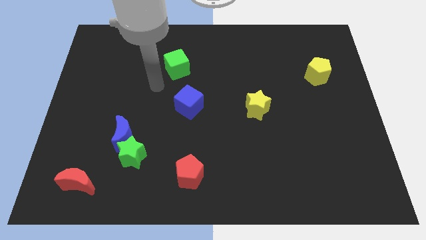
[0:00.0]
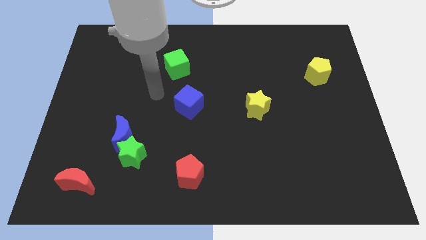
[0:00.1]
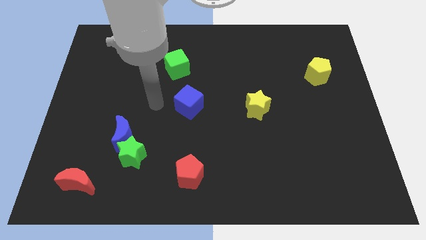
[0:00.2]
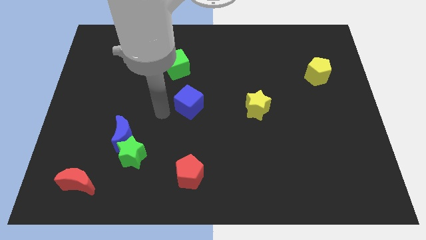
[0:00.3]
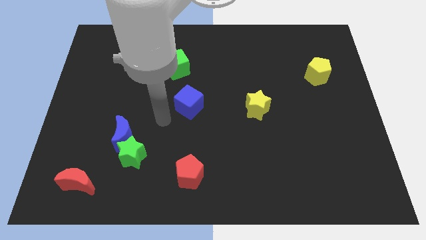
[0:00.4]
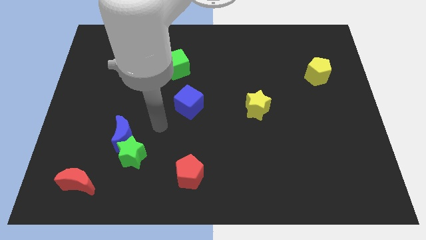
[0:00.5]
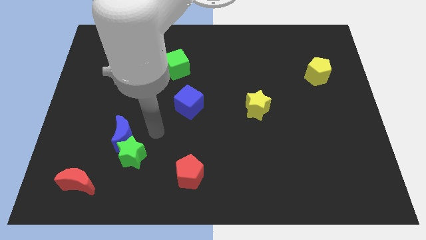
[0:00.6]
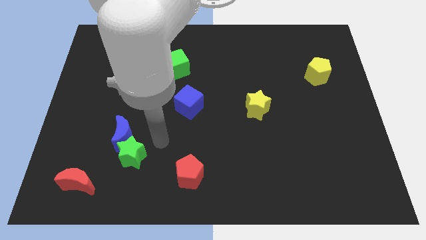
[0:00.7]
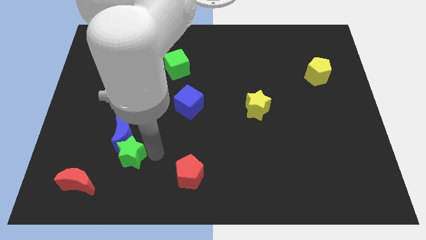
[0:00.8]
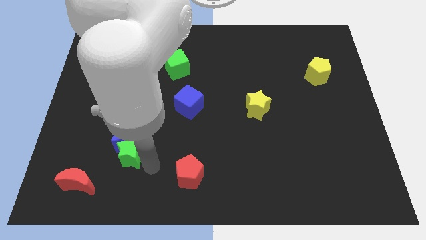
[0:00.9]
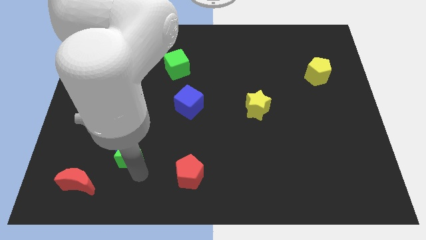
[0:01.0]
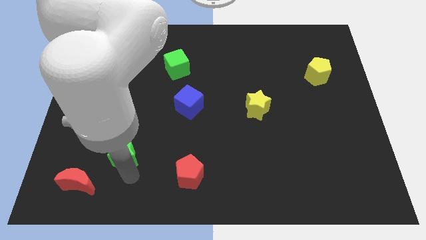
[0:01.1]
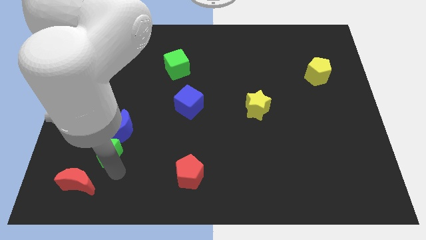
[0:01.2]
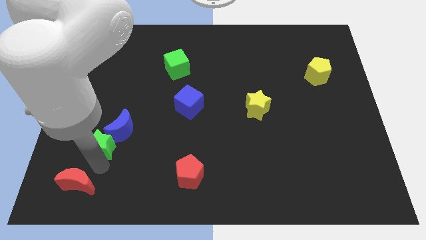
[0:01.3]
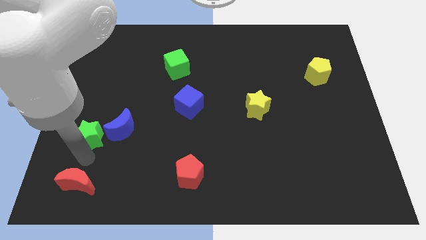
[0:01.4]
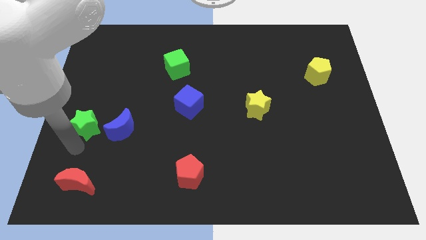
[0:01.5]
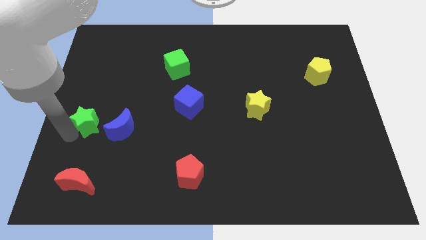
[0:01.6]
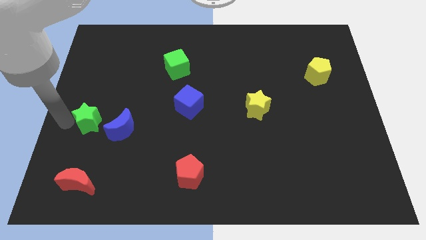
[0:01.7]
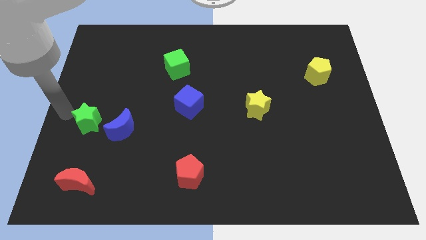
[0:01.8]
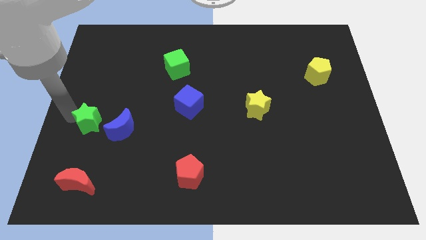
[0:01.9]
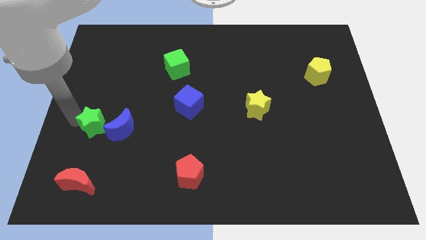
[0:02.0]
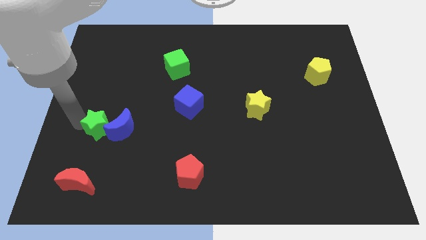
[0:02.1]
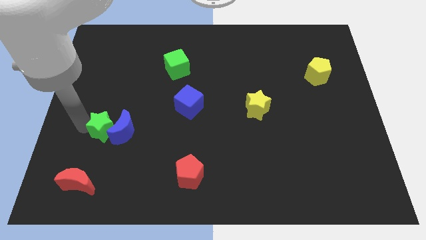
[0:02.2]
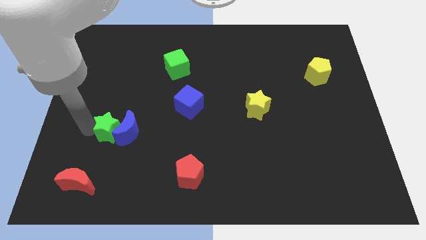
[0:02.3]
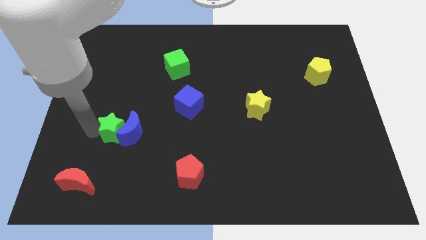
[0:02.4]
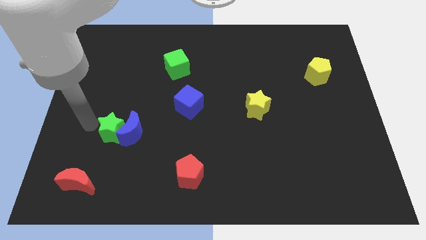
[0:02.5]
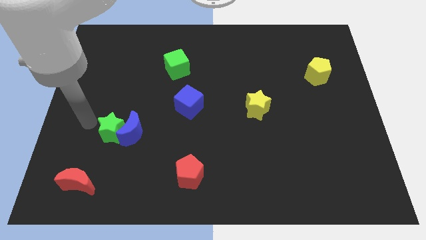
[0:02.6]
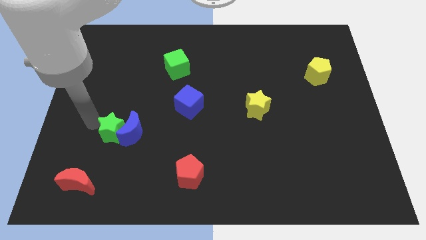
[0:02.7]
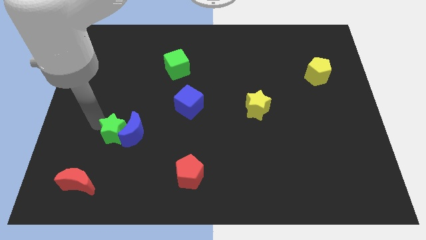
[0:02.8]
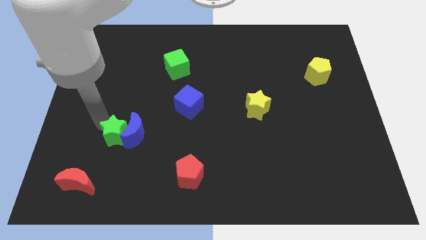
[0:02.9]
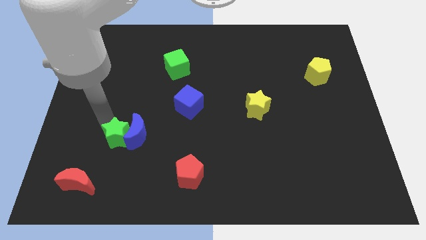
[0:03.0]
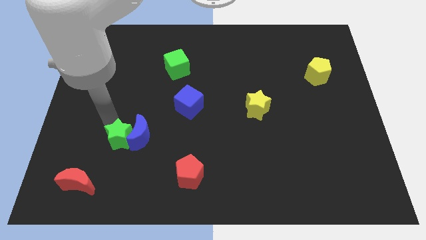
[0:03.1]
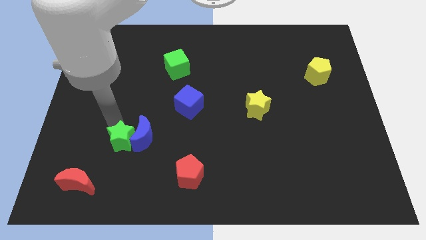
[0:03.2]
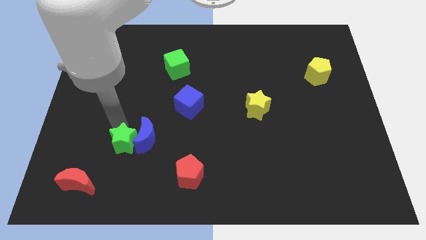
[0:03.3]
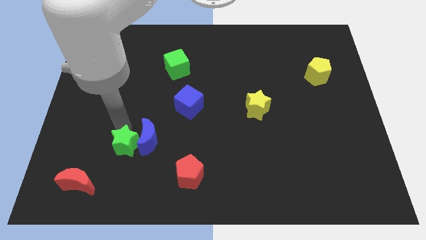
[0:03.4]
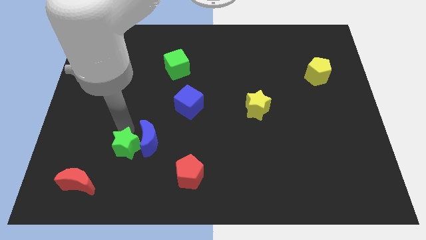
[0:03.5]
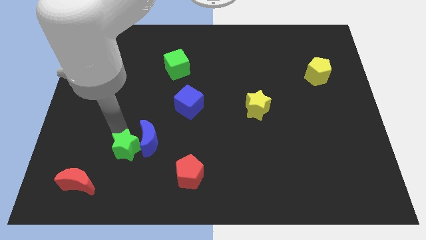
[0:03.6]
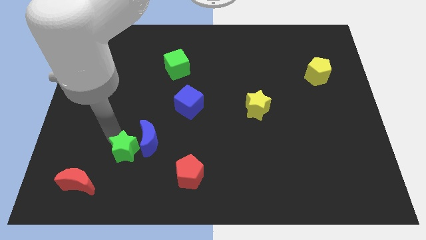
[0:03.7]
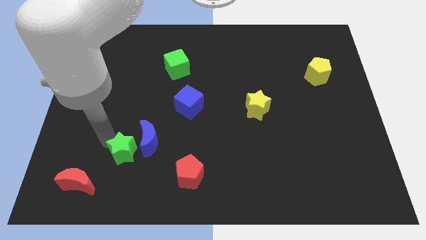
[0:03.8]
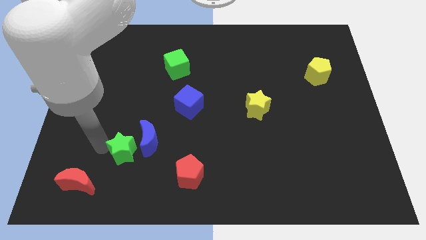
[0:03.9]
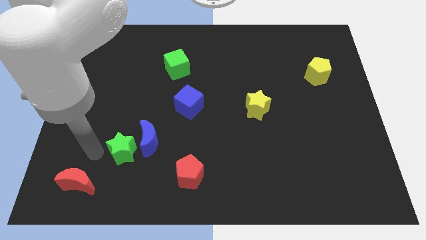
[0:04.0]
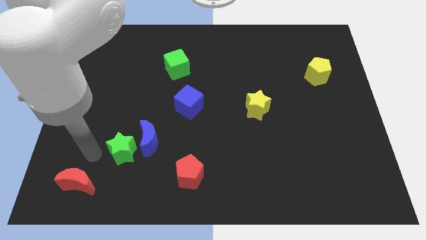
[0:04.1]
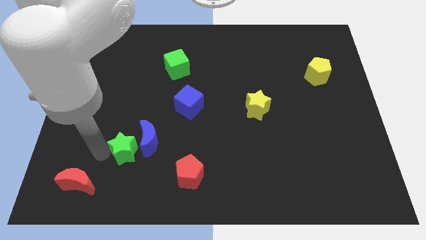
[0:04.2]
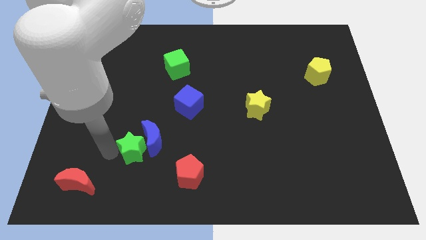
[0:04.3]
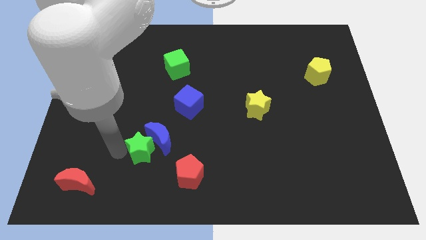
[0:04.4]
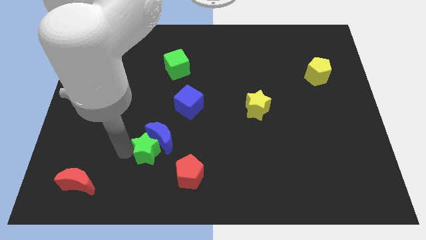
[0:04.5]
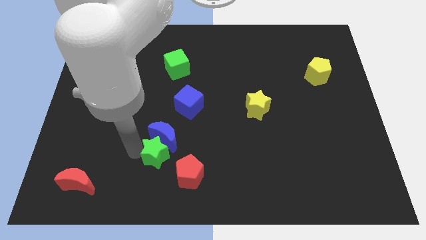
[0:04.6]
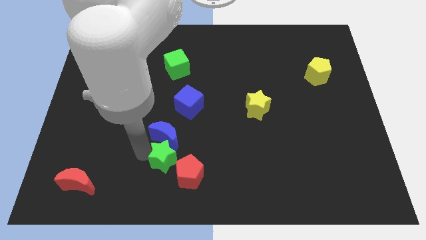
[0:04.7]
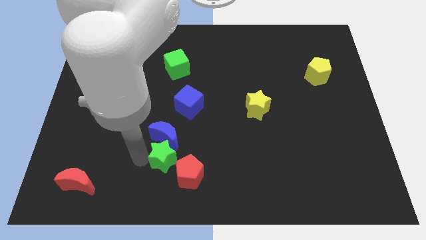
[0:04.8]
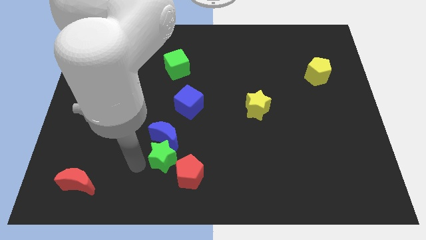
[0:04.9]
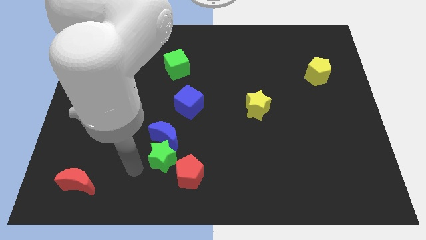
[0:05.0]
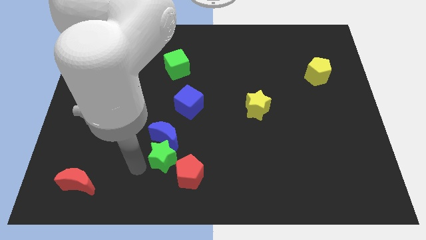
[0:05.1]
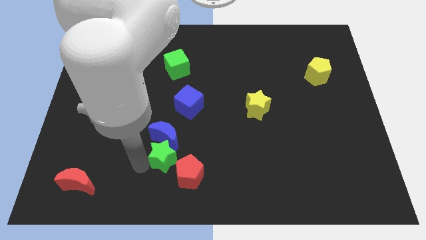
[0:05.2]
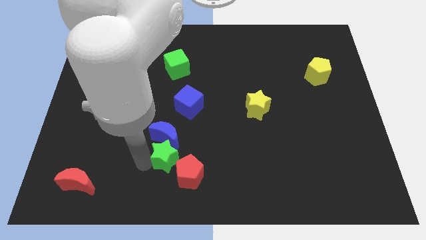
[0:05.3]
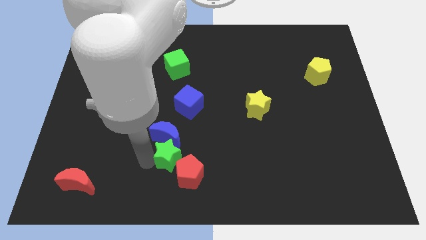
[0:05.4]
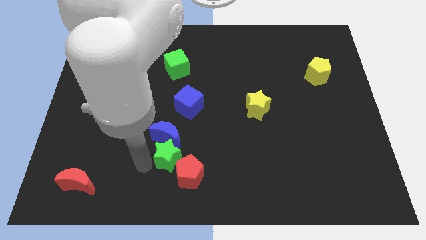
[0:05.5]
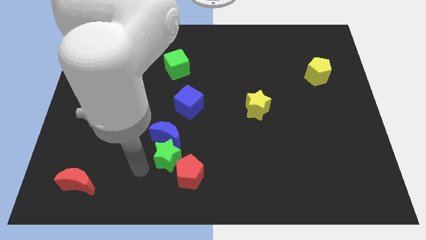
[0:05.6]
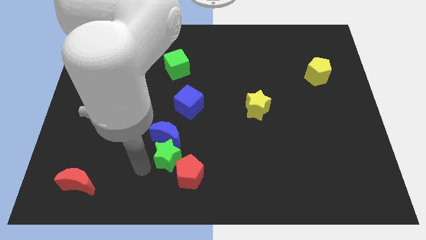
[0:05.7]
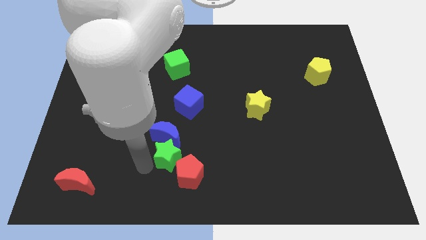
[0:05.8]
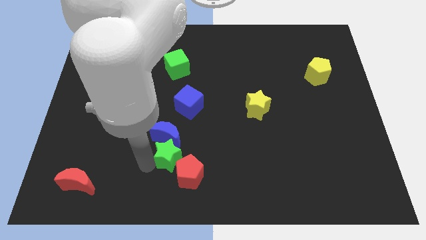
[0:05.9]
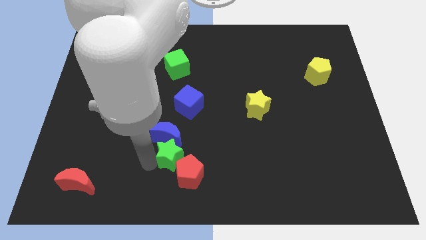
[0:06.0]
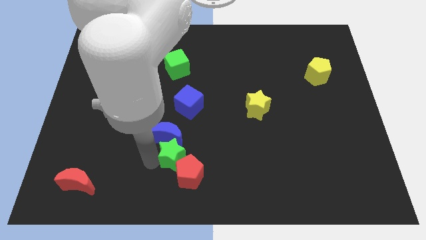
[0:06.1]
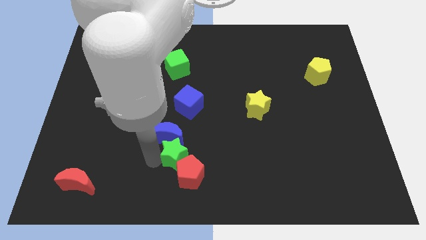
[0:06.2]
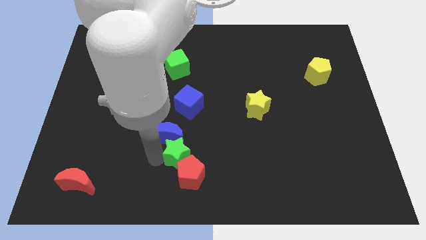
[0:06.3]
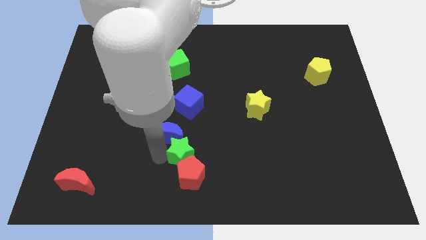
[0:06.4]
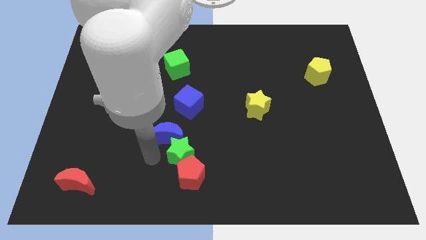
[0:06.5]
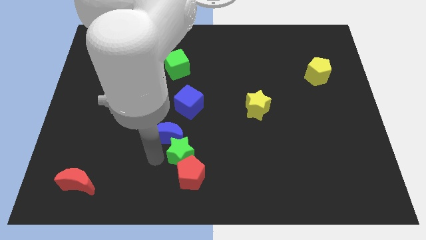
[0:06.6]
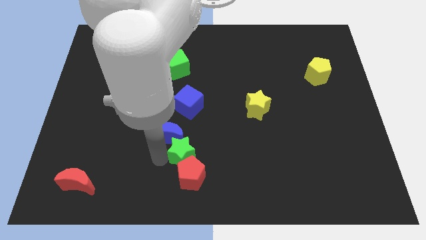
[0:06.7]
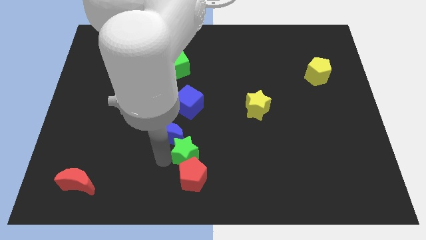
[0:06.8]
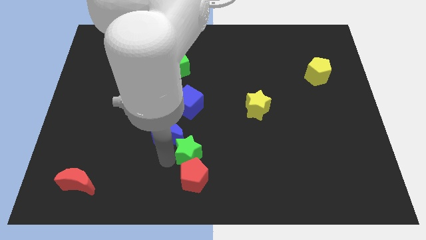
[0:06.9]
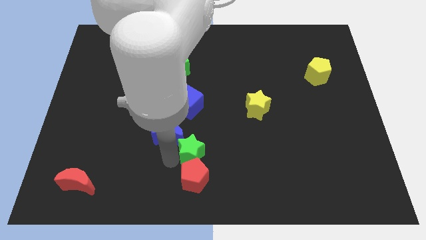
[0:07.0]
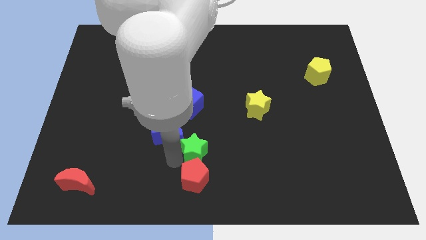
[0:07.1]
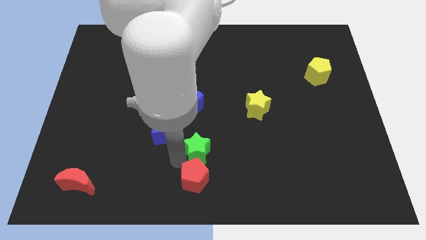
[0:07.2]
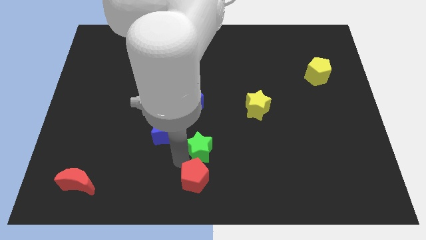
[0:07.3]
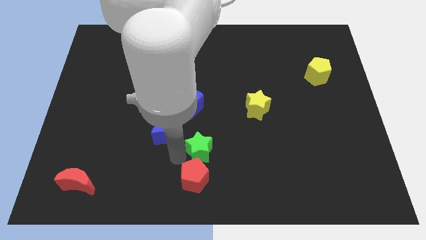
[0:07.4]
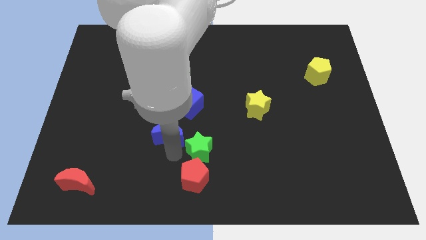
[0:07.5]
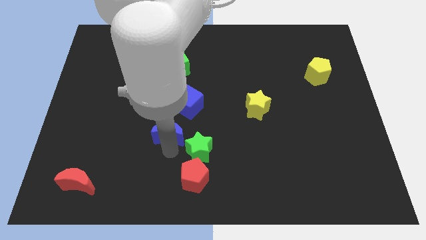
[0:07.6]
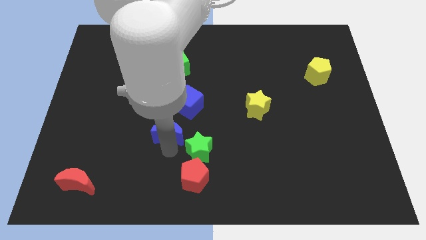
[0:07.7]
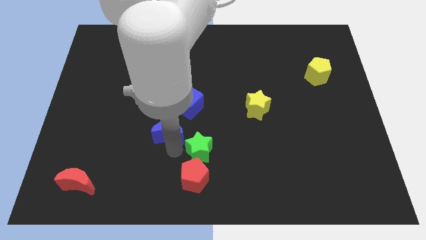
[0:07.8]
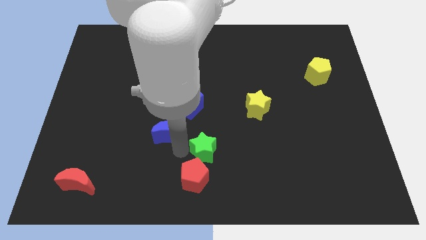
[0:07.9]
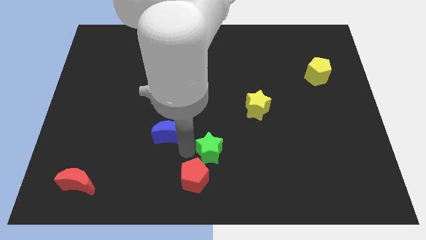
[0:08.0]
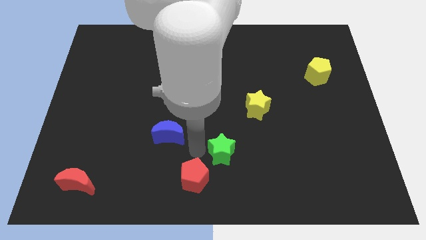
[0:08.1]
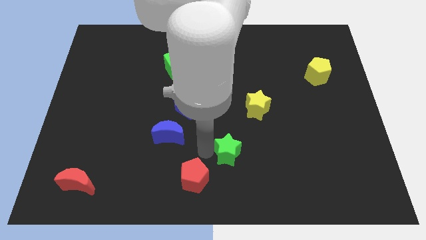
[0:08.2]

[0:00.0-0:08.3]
slide the green star right
